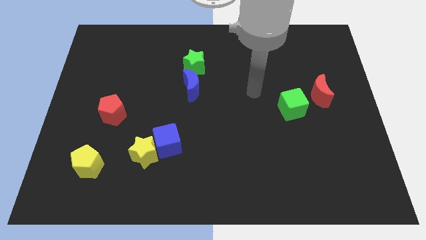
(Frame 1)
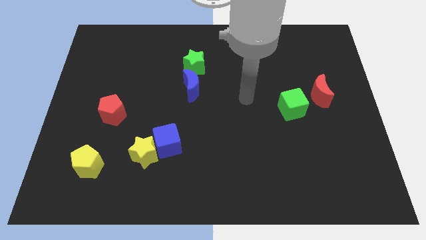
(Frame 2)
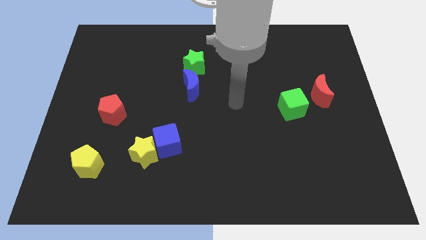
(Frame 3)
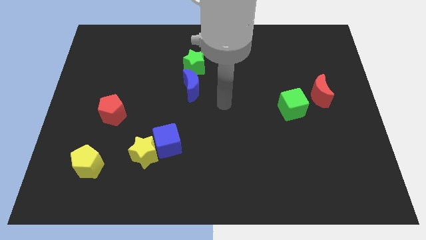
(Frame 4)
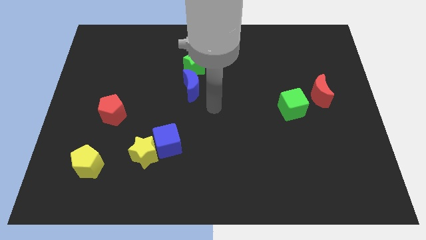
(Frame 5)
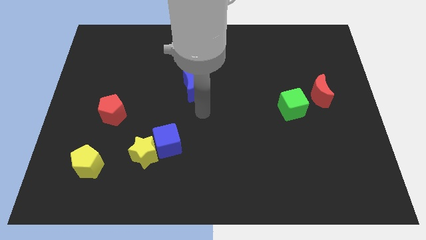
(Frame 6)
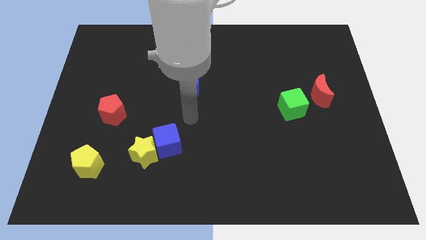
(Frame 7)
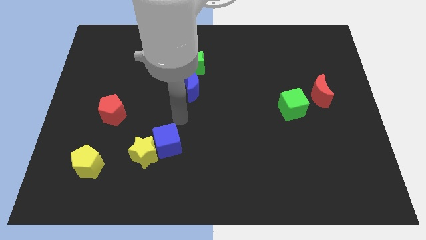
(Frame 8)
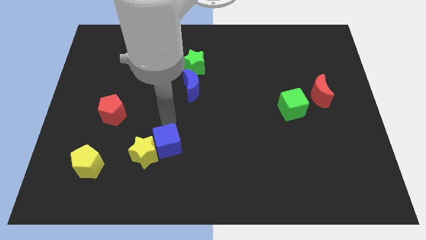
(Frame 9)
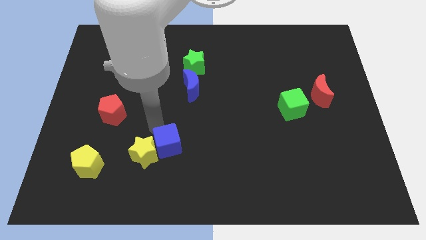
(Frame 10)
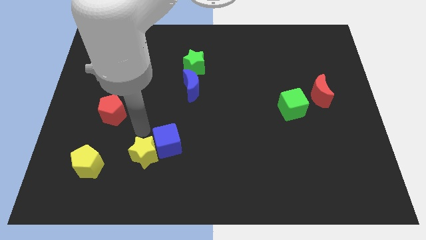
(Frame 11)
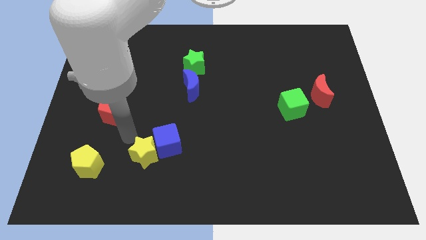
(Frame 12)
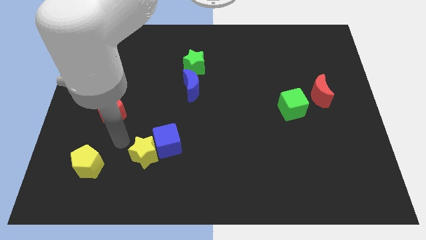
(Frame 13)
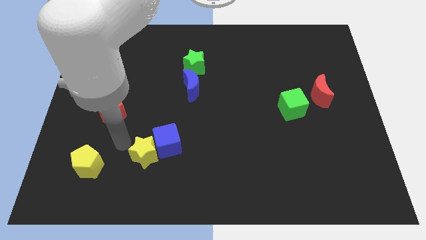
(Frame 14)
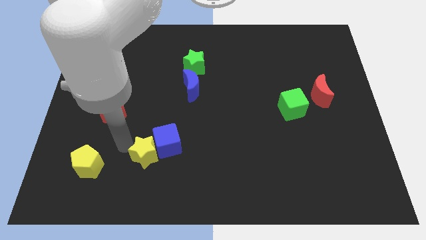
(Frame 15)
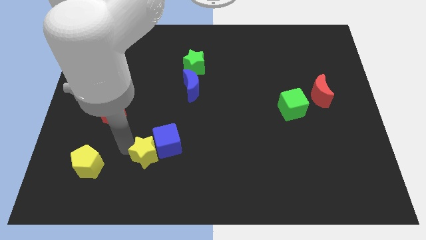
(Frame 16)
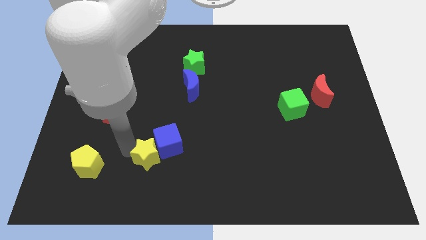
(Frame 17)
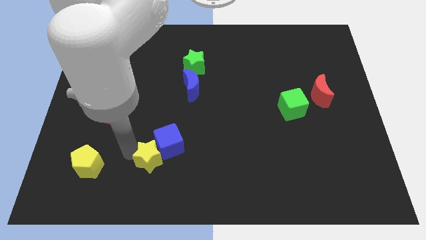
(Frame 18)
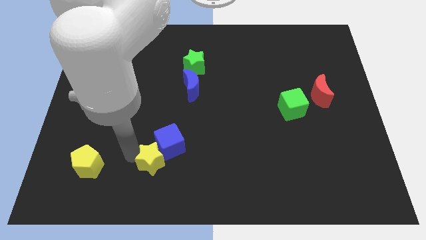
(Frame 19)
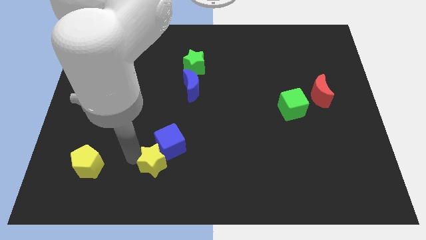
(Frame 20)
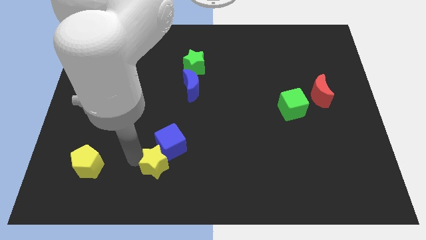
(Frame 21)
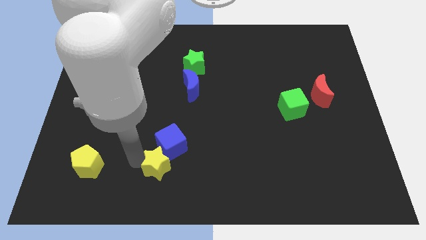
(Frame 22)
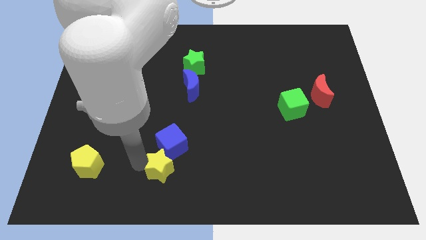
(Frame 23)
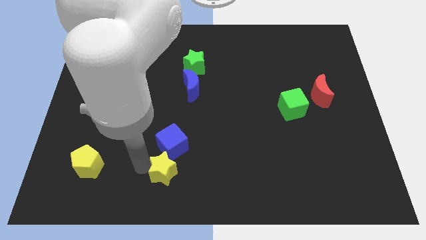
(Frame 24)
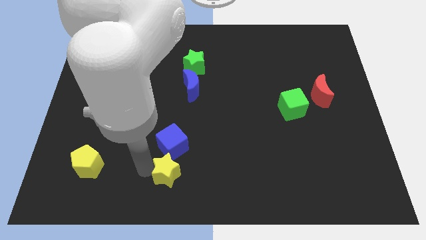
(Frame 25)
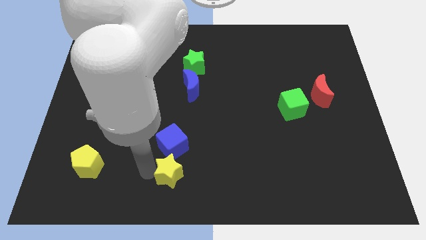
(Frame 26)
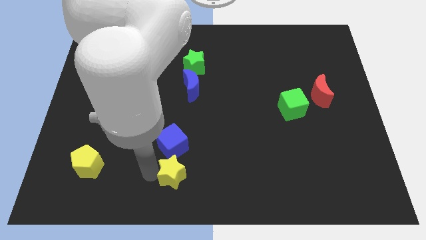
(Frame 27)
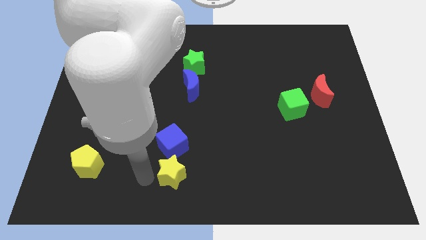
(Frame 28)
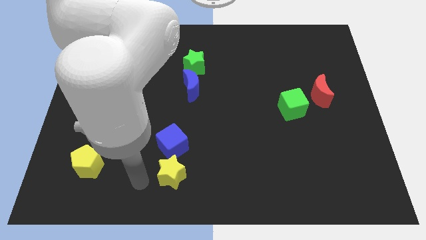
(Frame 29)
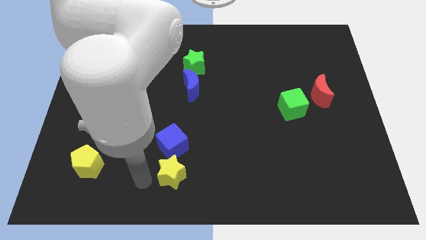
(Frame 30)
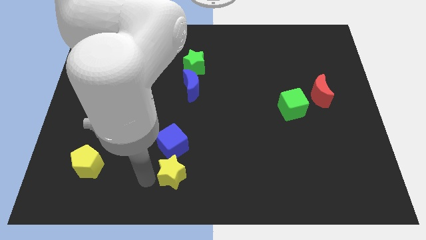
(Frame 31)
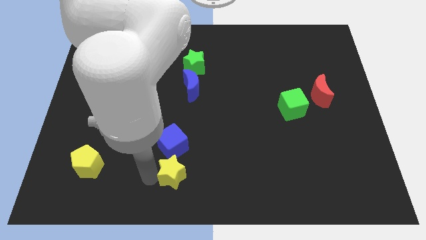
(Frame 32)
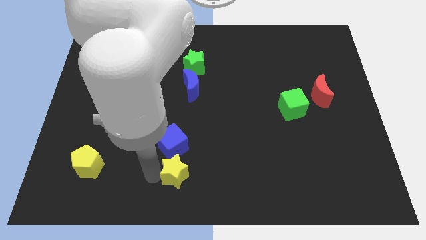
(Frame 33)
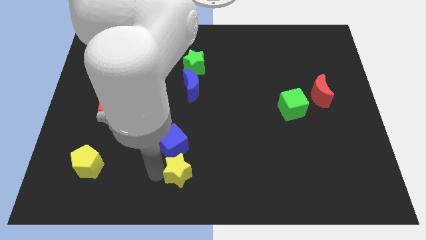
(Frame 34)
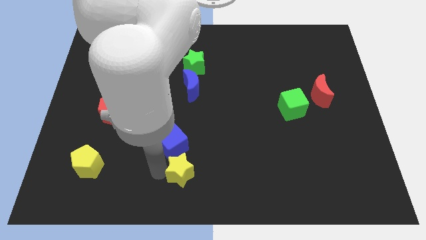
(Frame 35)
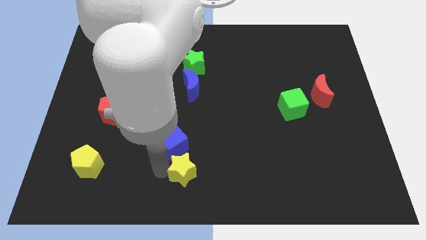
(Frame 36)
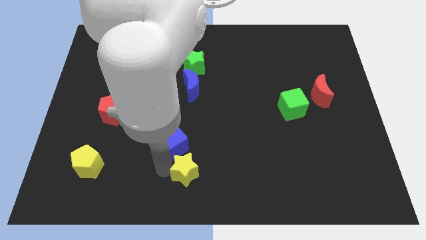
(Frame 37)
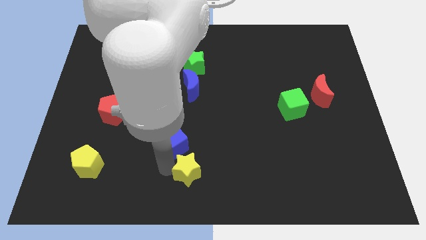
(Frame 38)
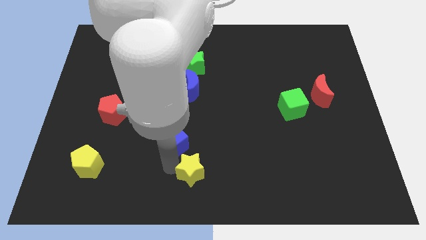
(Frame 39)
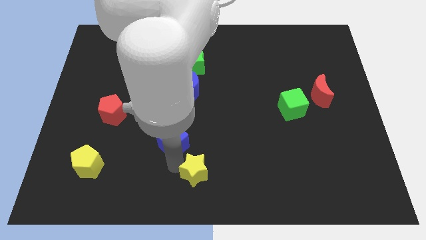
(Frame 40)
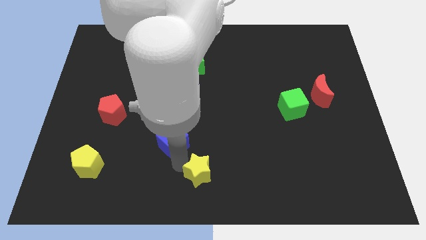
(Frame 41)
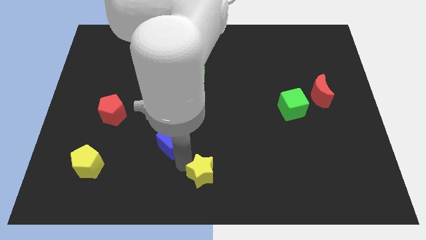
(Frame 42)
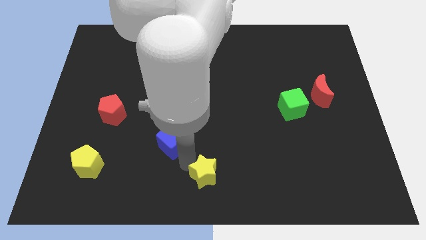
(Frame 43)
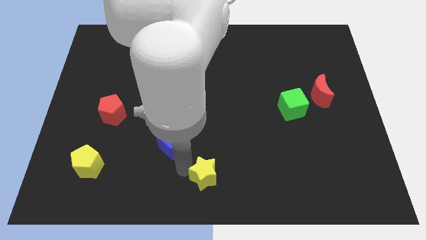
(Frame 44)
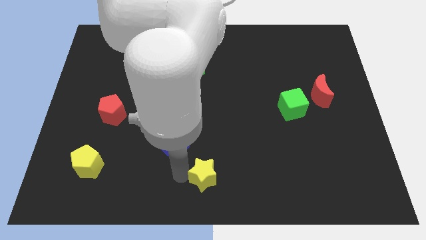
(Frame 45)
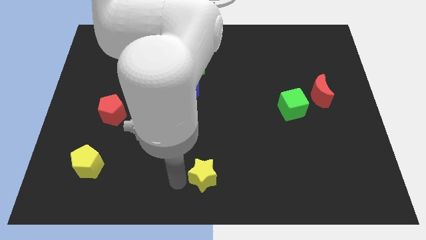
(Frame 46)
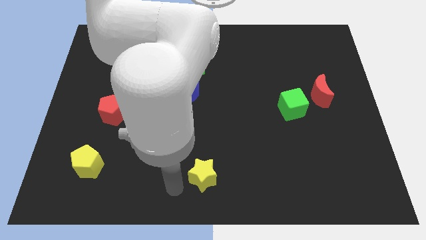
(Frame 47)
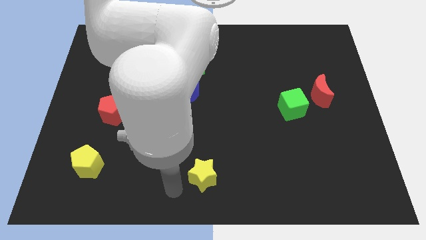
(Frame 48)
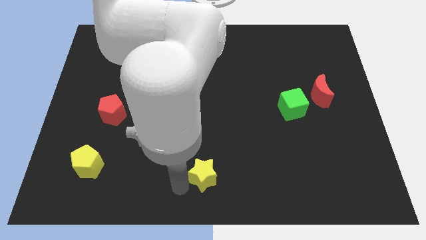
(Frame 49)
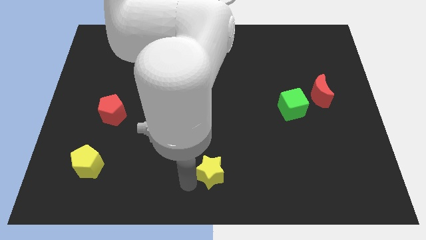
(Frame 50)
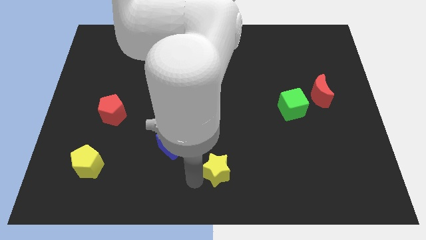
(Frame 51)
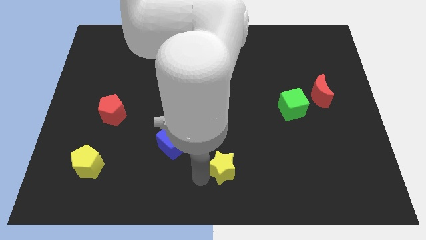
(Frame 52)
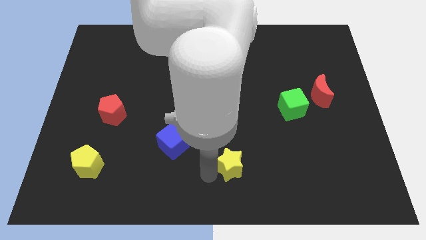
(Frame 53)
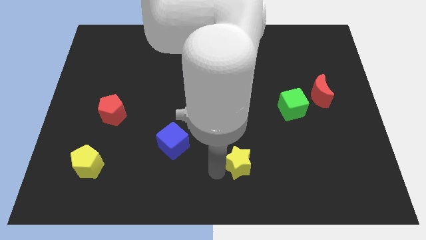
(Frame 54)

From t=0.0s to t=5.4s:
move the yellow star right

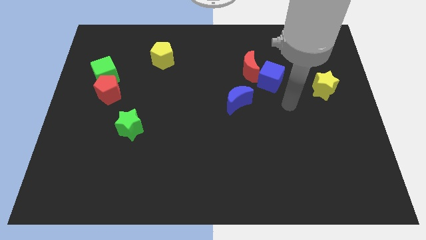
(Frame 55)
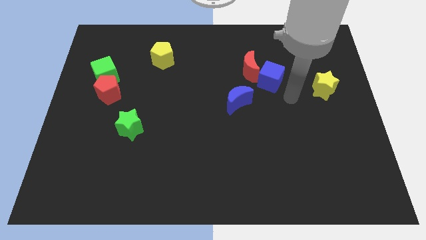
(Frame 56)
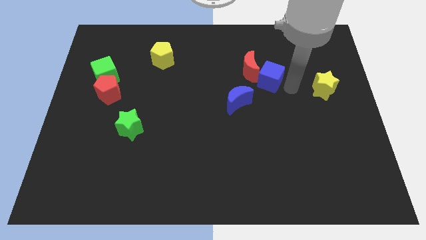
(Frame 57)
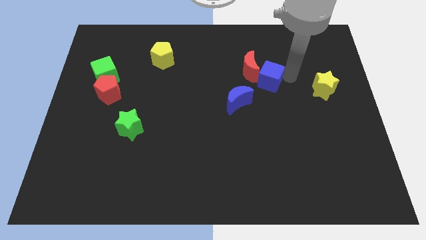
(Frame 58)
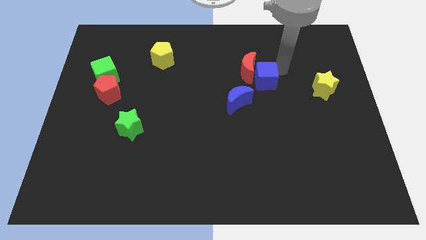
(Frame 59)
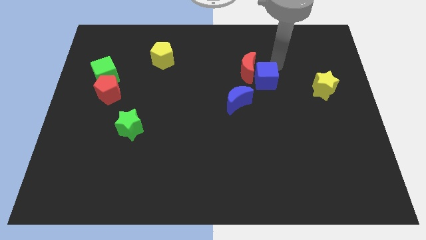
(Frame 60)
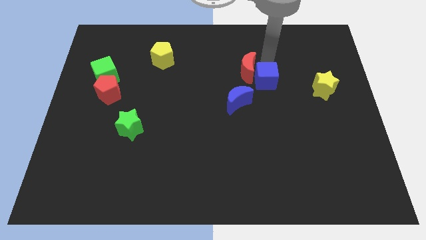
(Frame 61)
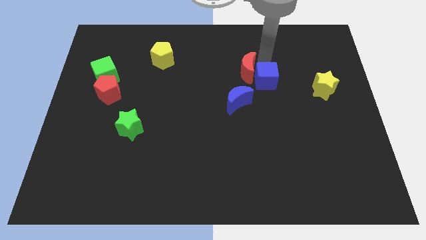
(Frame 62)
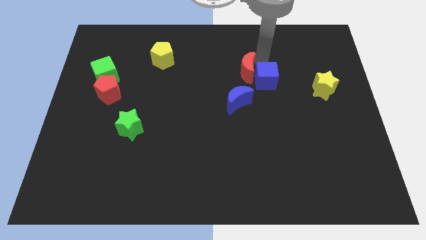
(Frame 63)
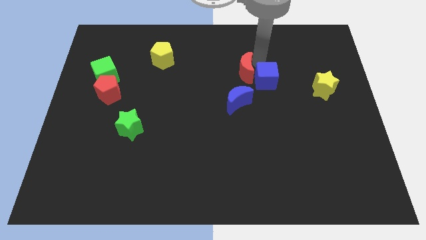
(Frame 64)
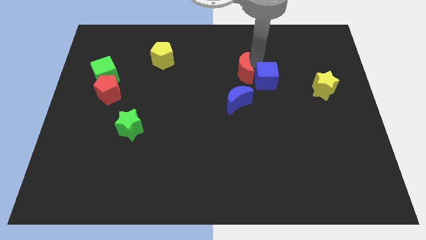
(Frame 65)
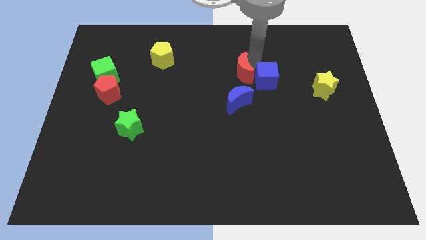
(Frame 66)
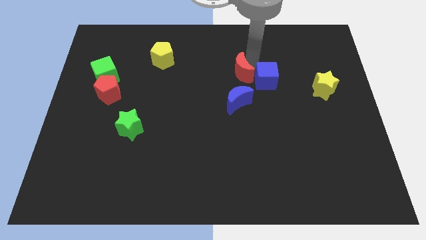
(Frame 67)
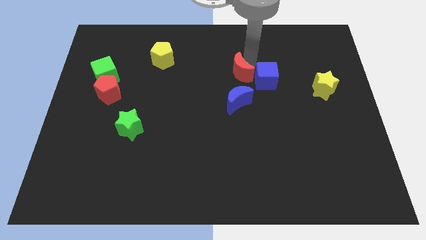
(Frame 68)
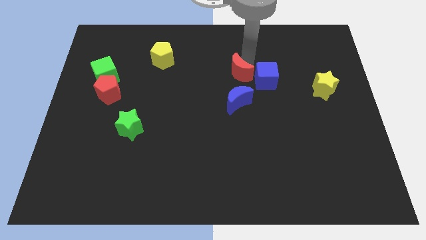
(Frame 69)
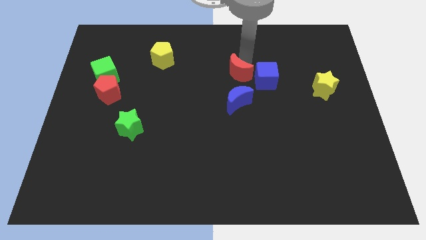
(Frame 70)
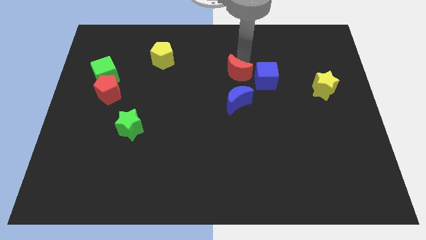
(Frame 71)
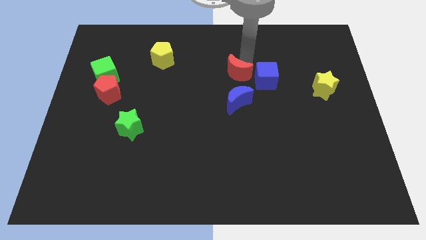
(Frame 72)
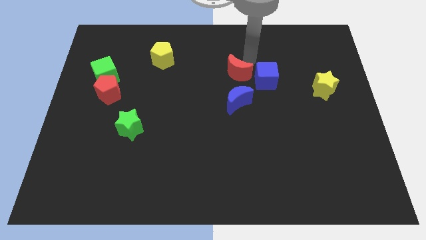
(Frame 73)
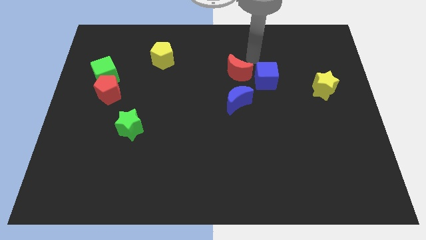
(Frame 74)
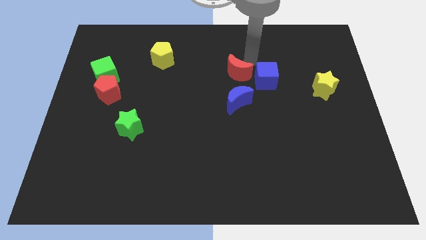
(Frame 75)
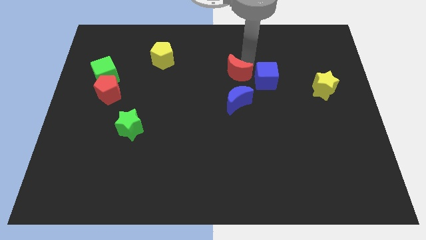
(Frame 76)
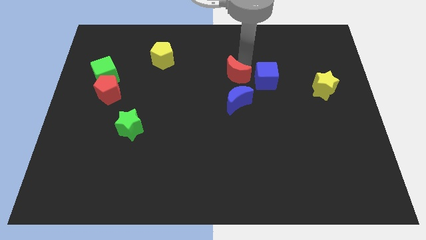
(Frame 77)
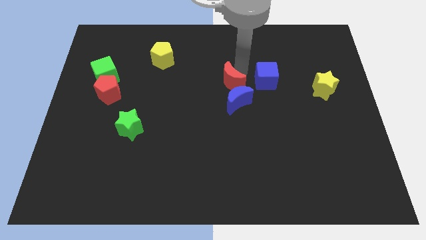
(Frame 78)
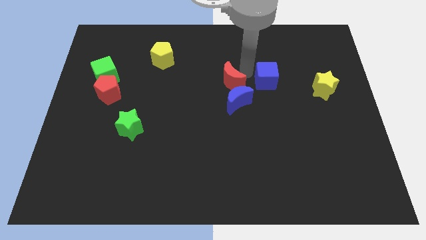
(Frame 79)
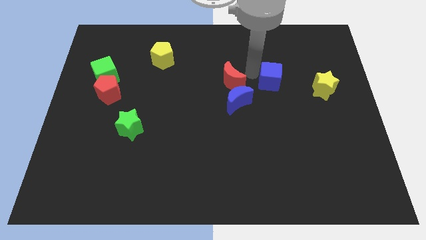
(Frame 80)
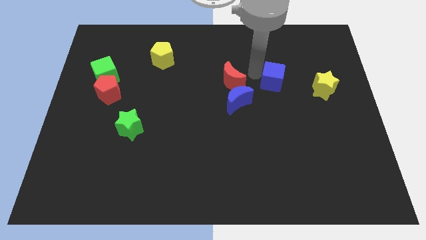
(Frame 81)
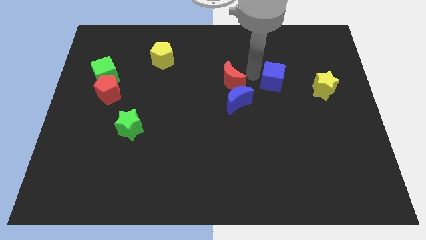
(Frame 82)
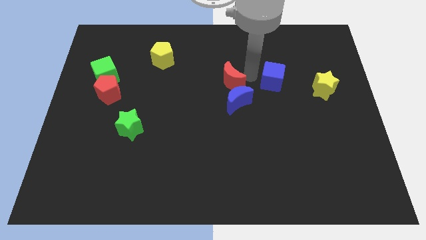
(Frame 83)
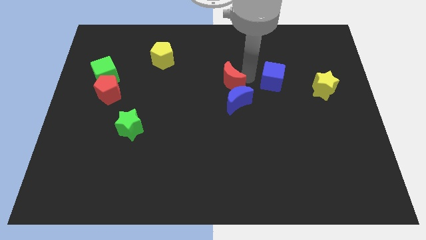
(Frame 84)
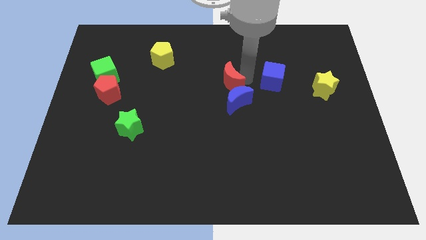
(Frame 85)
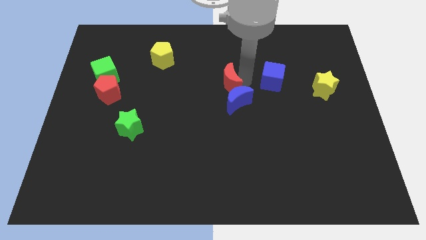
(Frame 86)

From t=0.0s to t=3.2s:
slide the red moon down and left diagonally a bit
